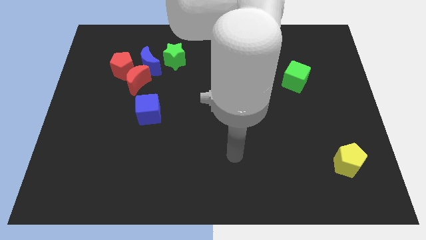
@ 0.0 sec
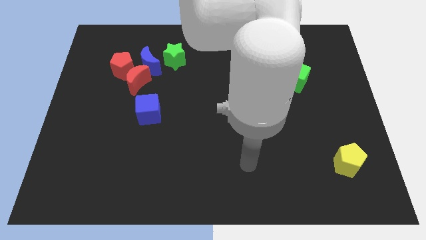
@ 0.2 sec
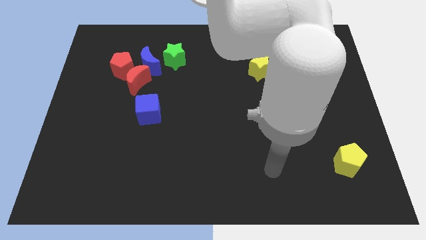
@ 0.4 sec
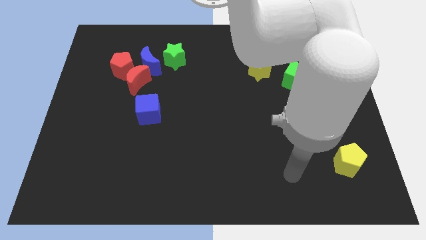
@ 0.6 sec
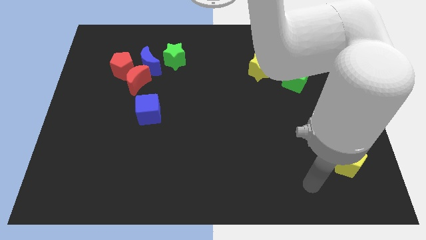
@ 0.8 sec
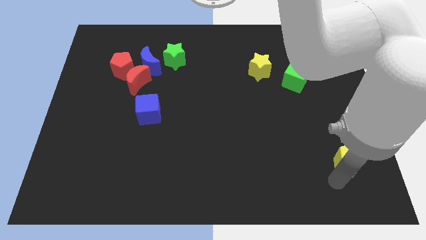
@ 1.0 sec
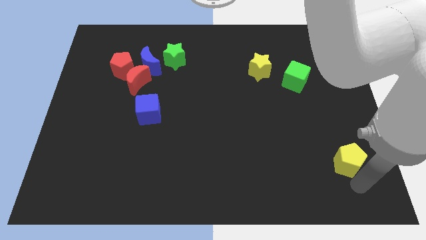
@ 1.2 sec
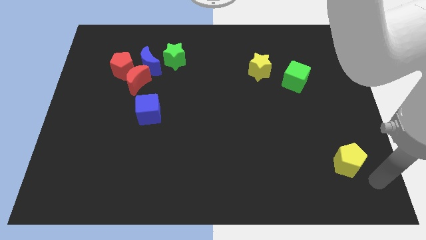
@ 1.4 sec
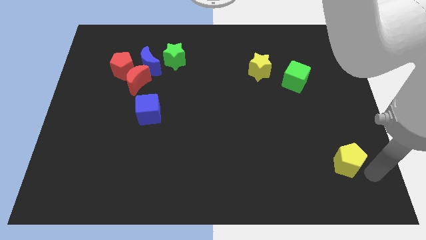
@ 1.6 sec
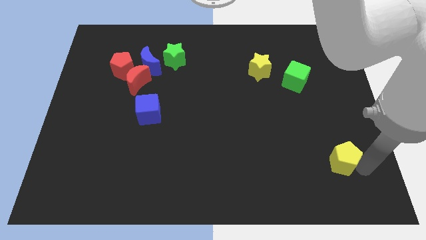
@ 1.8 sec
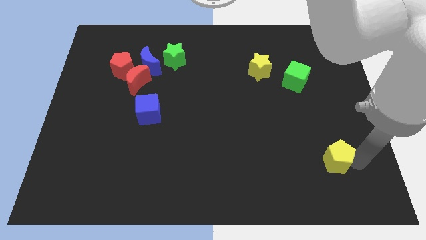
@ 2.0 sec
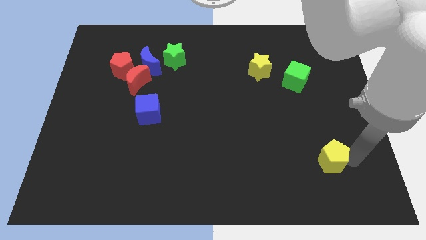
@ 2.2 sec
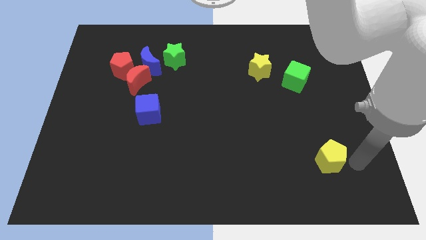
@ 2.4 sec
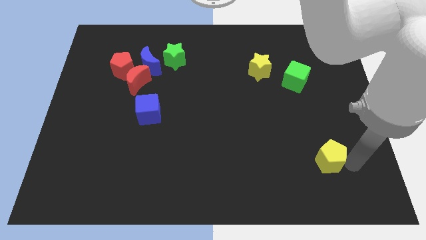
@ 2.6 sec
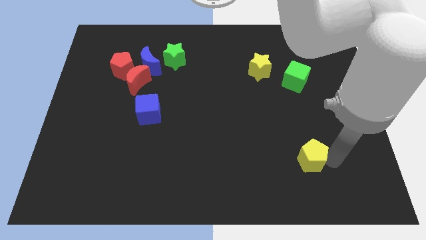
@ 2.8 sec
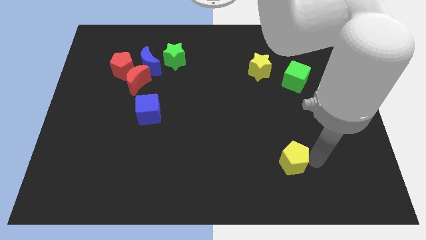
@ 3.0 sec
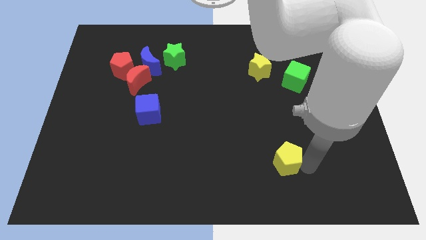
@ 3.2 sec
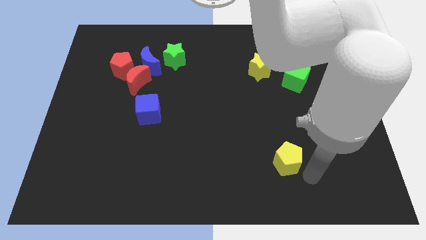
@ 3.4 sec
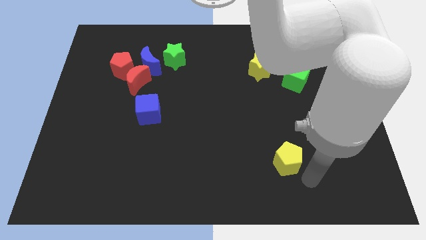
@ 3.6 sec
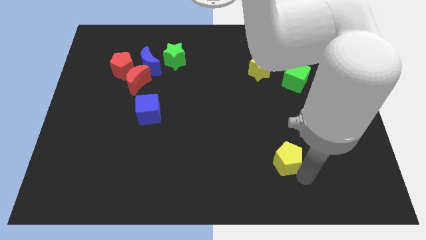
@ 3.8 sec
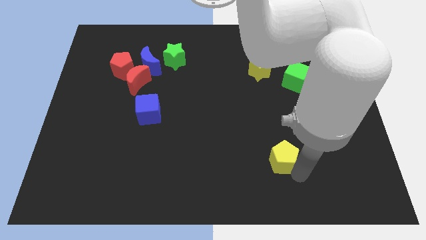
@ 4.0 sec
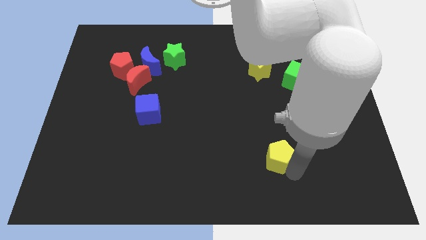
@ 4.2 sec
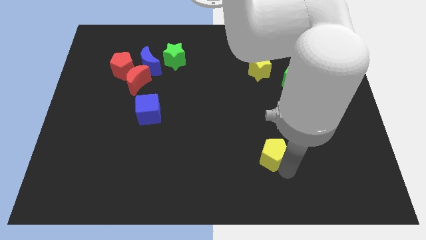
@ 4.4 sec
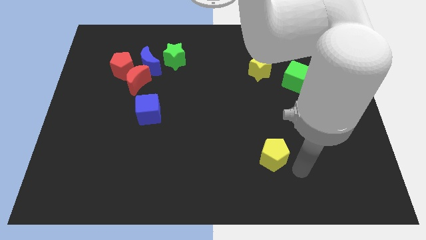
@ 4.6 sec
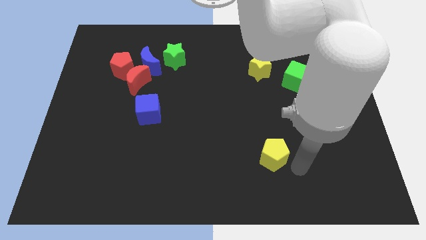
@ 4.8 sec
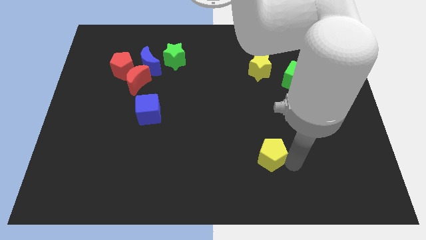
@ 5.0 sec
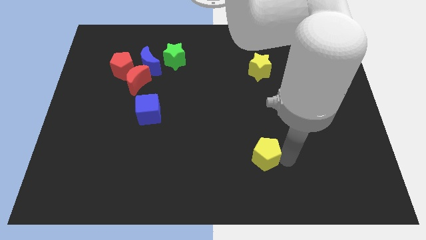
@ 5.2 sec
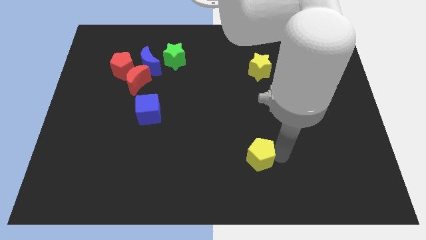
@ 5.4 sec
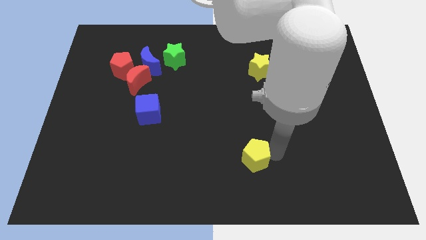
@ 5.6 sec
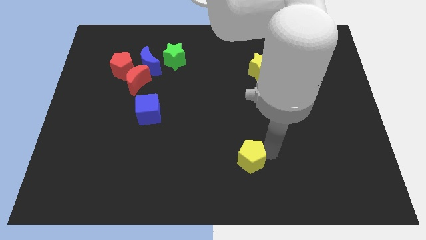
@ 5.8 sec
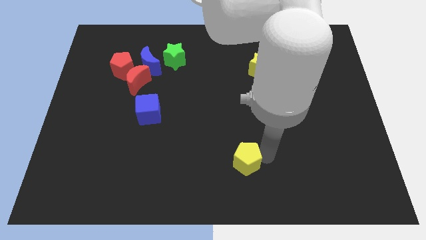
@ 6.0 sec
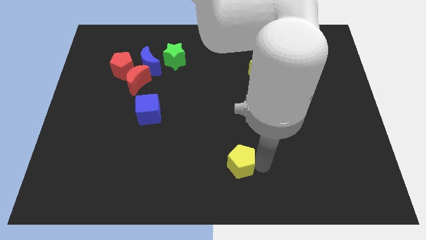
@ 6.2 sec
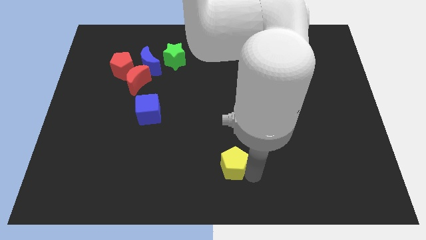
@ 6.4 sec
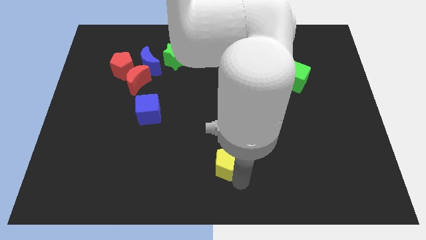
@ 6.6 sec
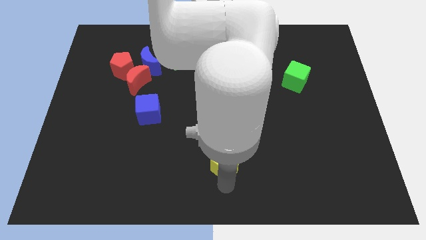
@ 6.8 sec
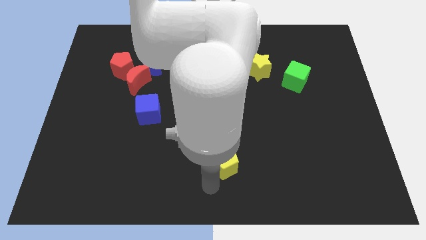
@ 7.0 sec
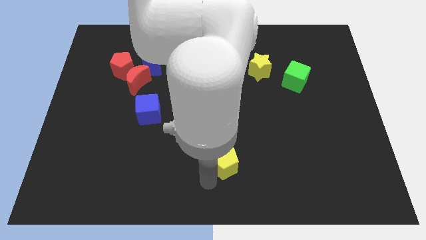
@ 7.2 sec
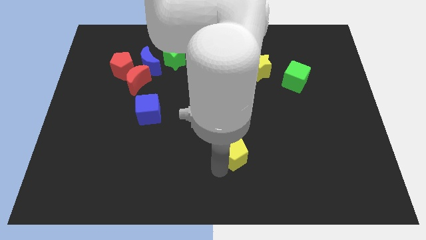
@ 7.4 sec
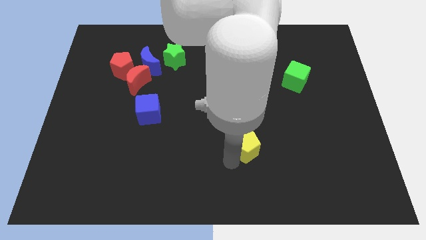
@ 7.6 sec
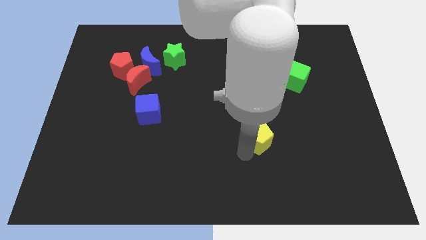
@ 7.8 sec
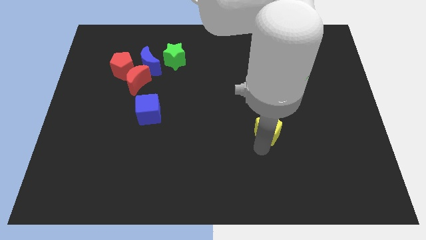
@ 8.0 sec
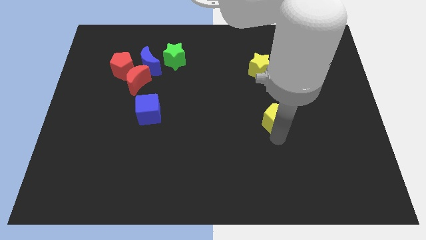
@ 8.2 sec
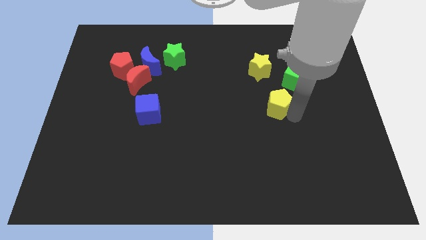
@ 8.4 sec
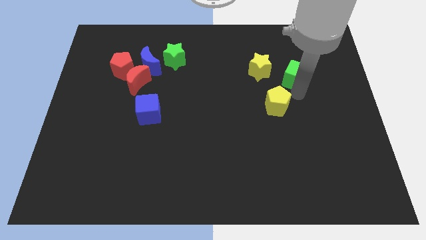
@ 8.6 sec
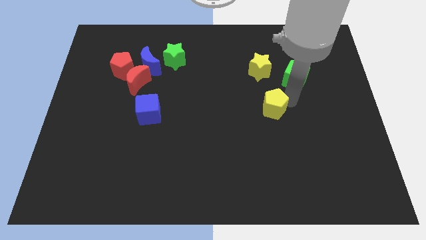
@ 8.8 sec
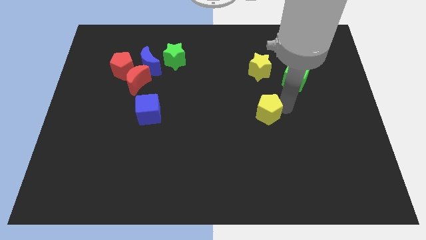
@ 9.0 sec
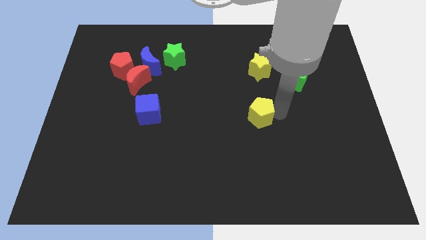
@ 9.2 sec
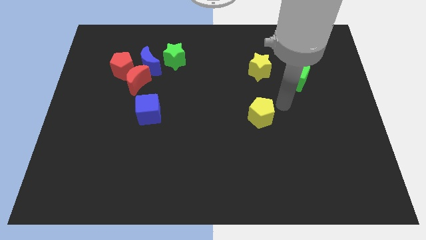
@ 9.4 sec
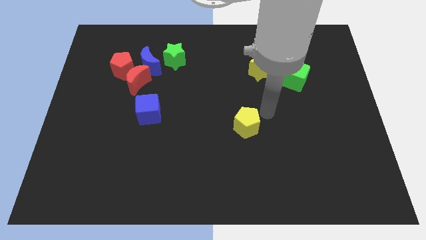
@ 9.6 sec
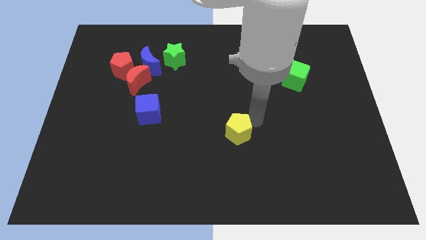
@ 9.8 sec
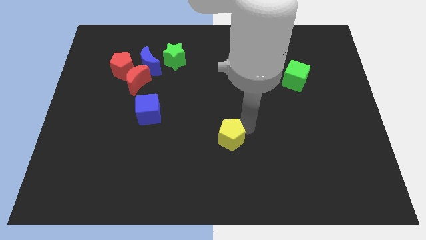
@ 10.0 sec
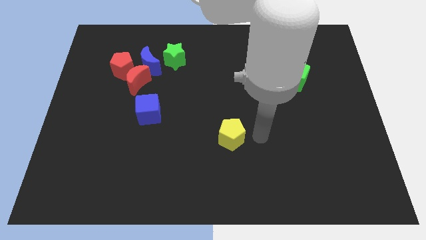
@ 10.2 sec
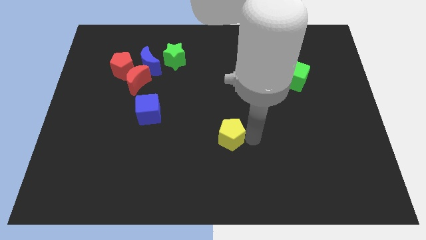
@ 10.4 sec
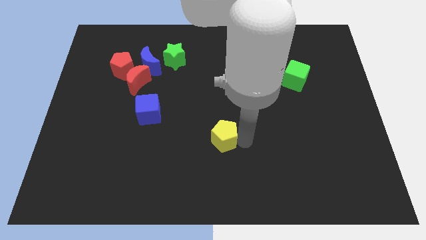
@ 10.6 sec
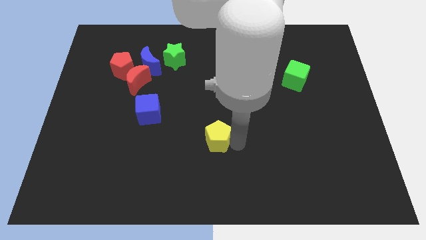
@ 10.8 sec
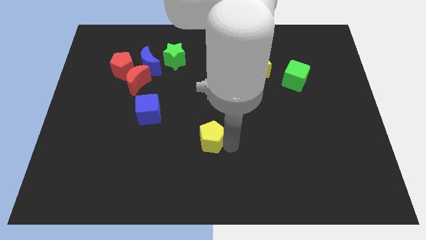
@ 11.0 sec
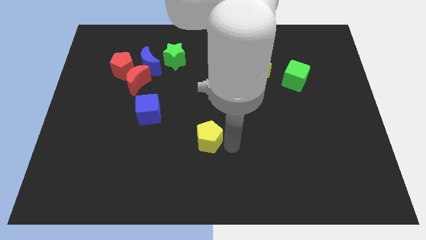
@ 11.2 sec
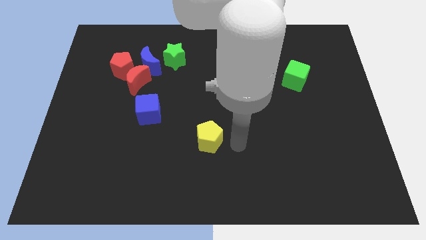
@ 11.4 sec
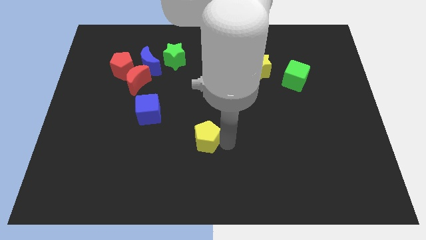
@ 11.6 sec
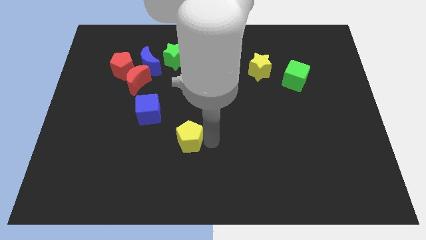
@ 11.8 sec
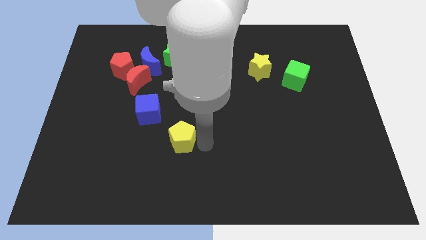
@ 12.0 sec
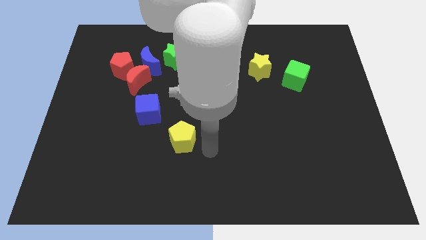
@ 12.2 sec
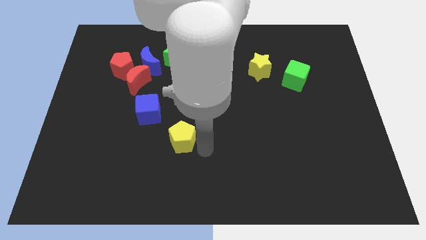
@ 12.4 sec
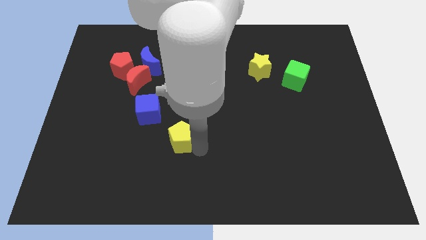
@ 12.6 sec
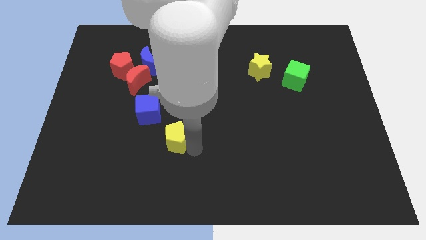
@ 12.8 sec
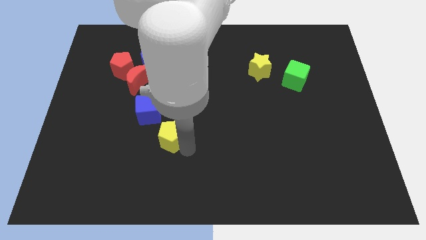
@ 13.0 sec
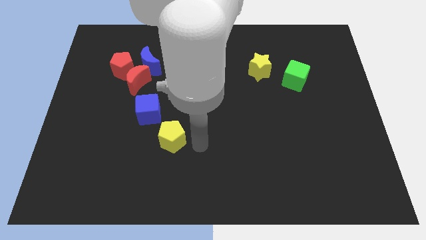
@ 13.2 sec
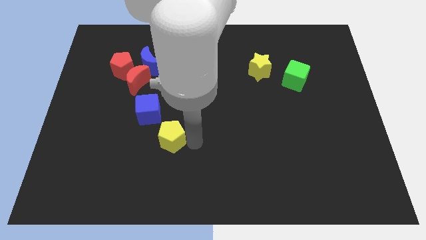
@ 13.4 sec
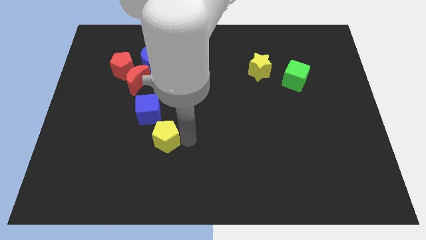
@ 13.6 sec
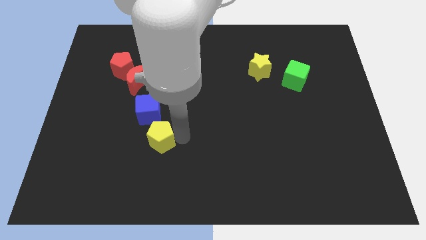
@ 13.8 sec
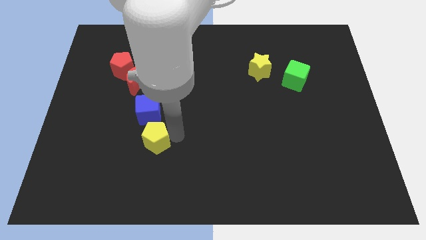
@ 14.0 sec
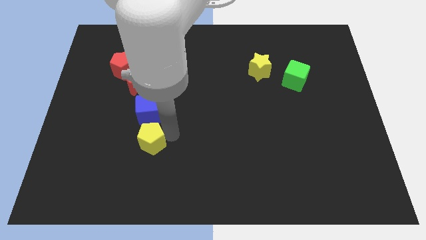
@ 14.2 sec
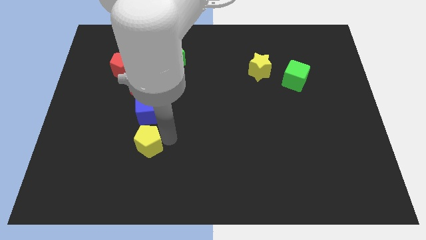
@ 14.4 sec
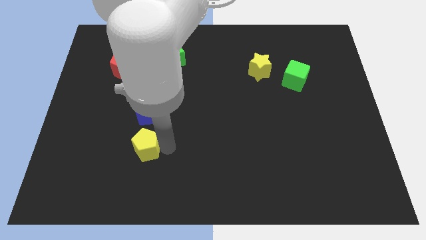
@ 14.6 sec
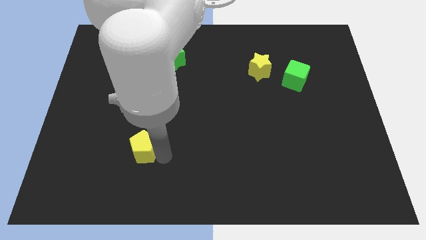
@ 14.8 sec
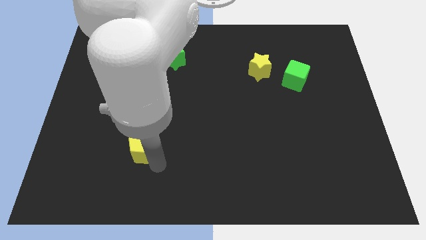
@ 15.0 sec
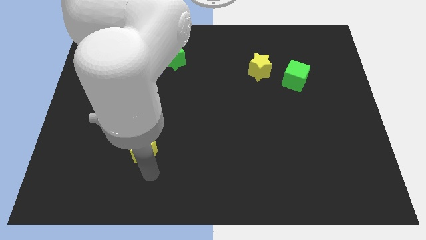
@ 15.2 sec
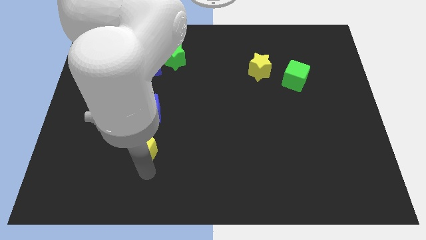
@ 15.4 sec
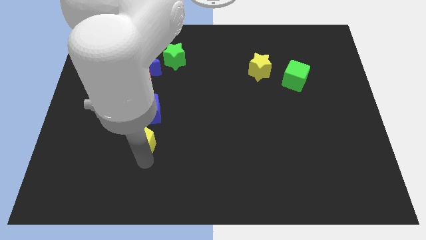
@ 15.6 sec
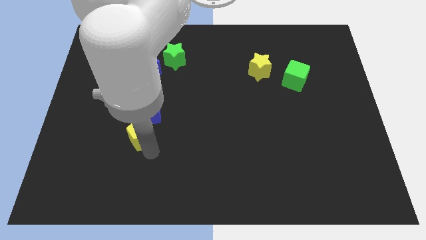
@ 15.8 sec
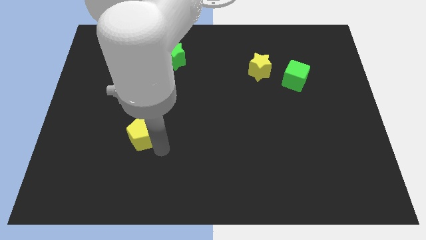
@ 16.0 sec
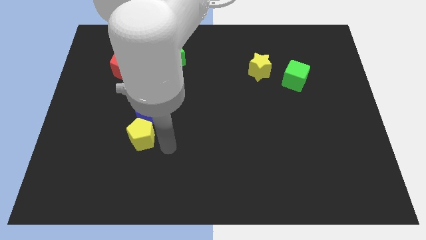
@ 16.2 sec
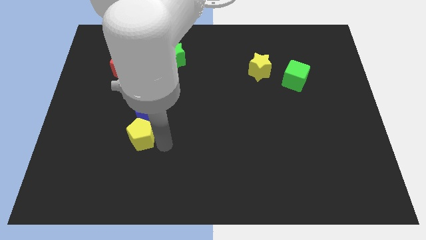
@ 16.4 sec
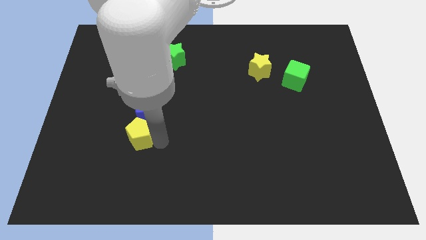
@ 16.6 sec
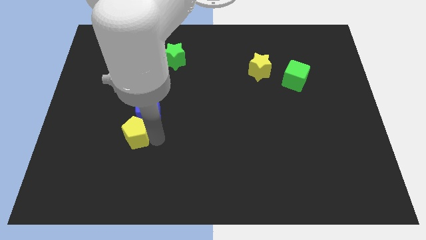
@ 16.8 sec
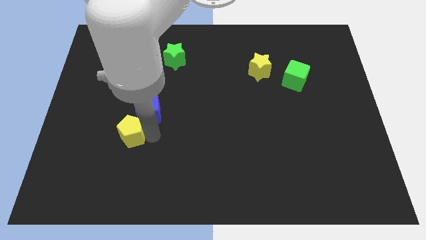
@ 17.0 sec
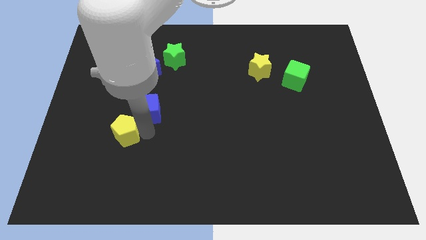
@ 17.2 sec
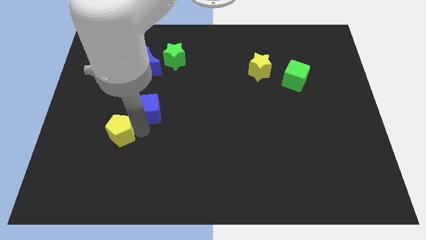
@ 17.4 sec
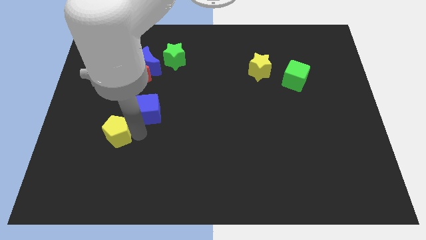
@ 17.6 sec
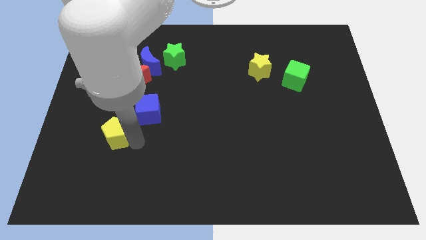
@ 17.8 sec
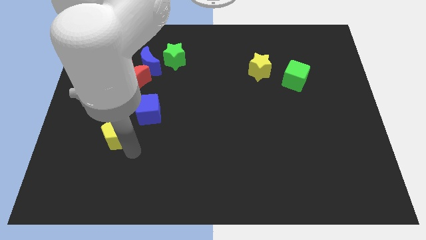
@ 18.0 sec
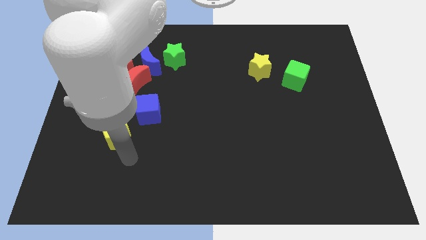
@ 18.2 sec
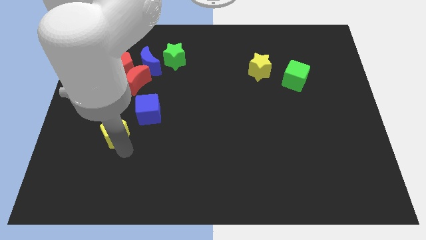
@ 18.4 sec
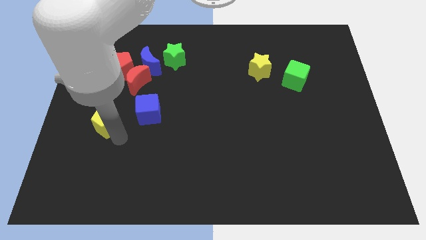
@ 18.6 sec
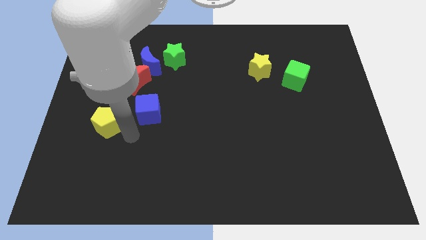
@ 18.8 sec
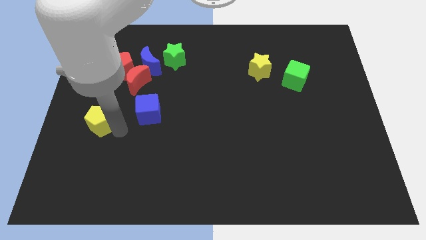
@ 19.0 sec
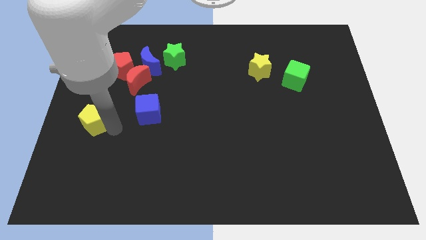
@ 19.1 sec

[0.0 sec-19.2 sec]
put the yellow pentagon to the center left
